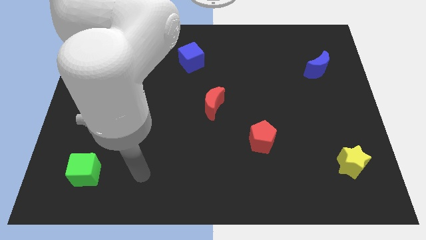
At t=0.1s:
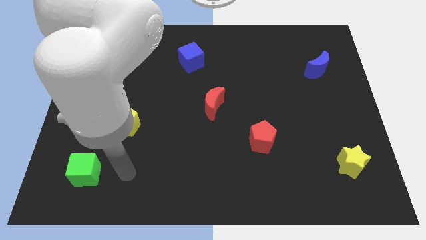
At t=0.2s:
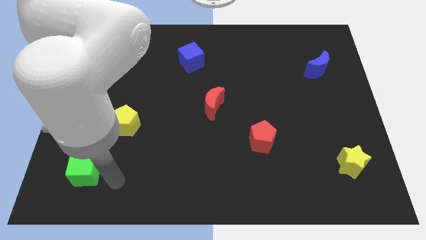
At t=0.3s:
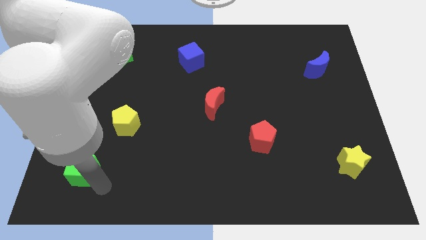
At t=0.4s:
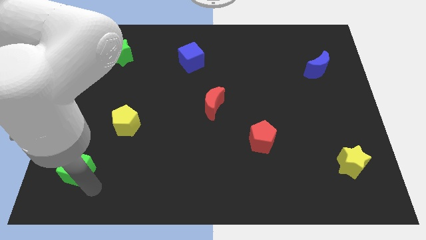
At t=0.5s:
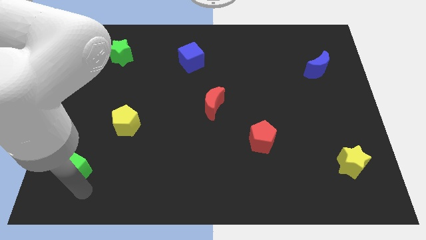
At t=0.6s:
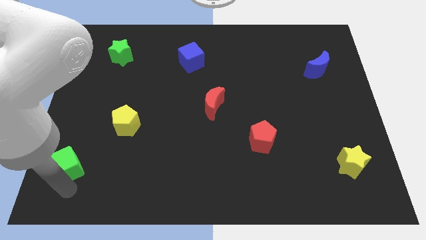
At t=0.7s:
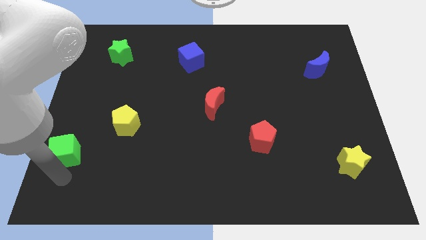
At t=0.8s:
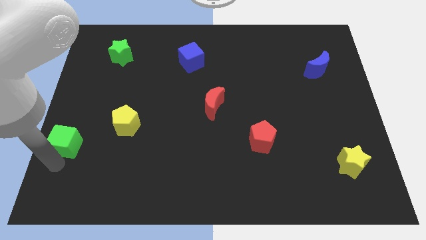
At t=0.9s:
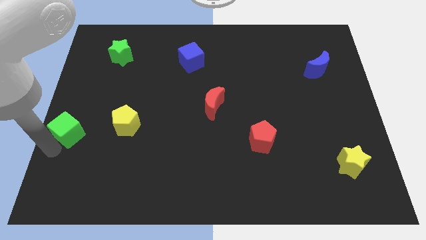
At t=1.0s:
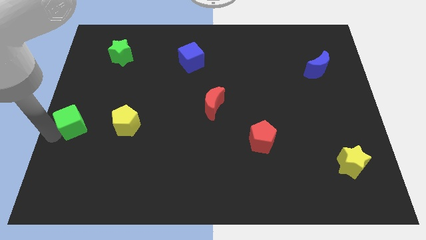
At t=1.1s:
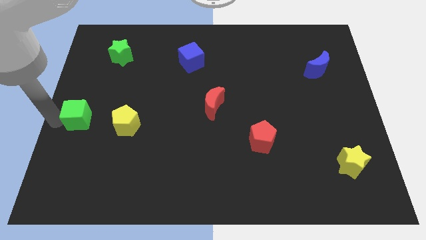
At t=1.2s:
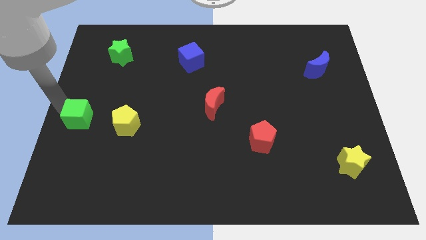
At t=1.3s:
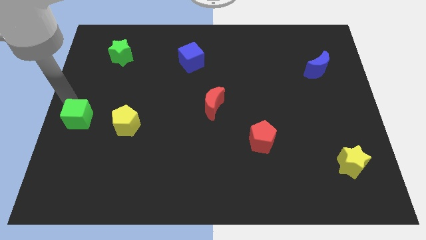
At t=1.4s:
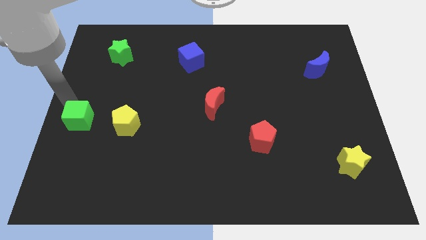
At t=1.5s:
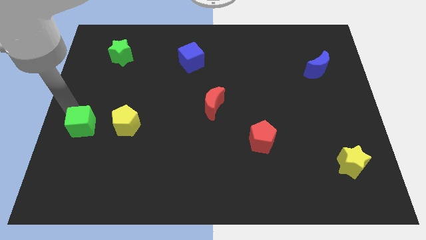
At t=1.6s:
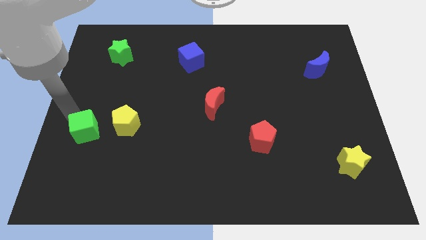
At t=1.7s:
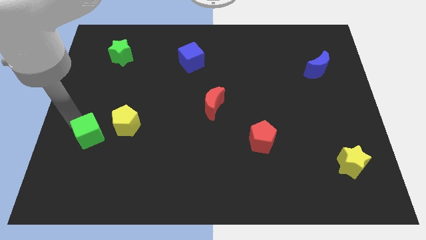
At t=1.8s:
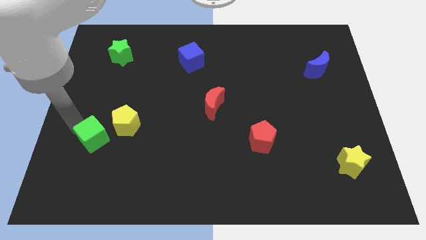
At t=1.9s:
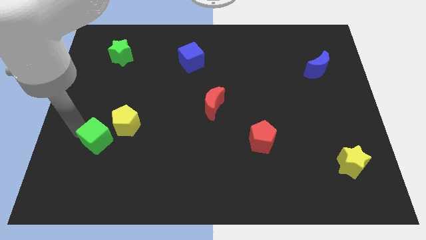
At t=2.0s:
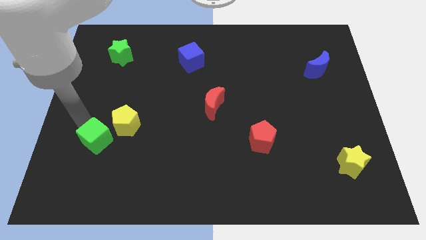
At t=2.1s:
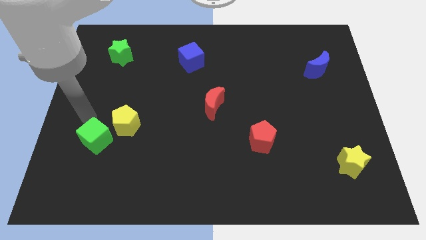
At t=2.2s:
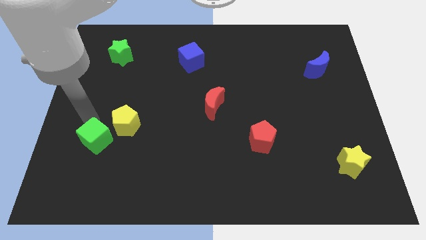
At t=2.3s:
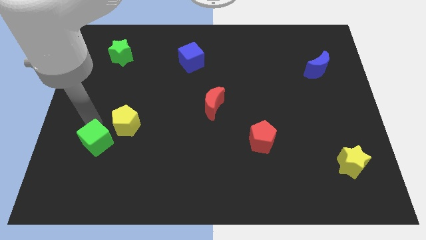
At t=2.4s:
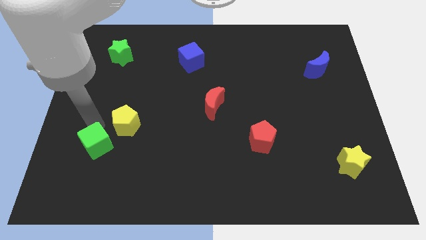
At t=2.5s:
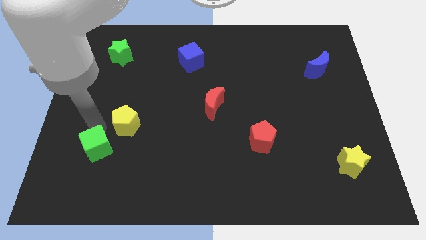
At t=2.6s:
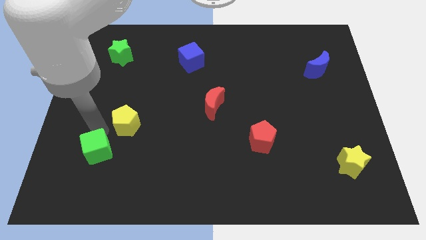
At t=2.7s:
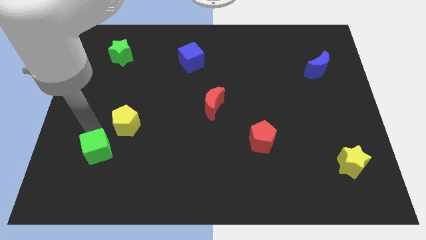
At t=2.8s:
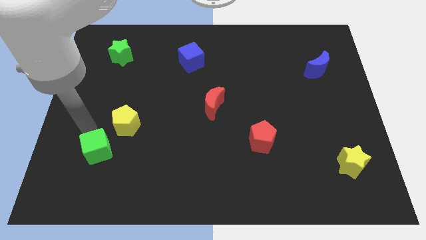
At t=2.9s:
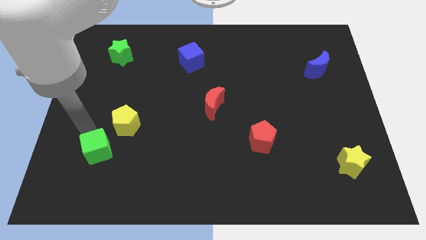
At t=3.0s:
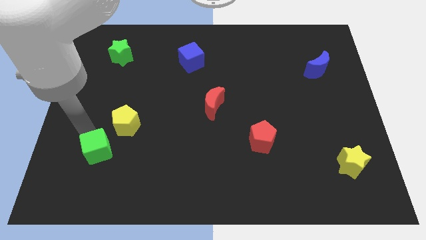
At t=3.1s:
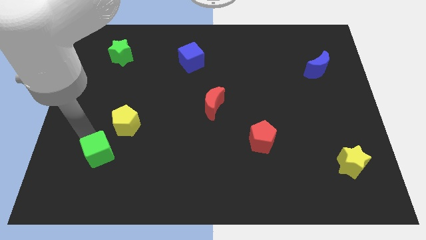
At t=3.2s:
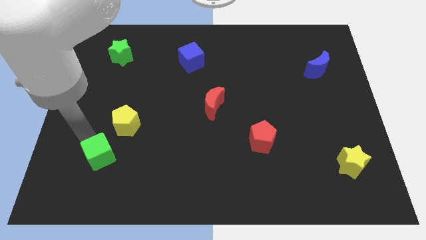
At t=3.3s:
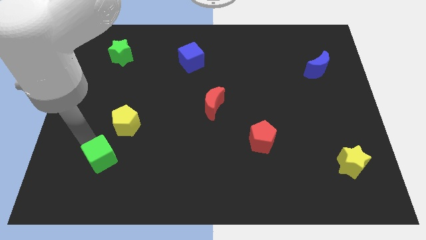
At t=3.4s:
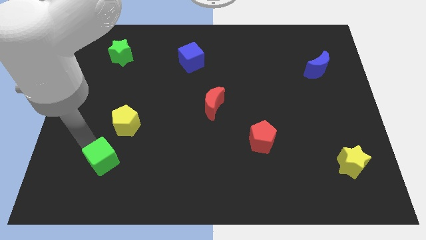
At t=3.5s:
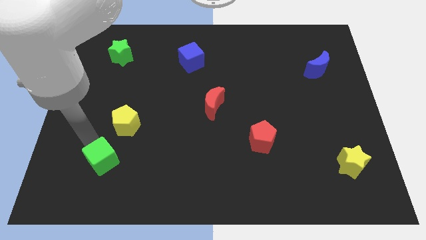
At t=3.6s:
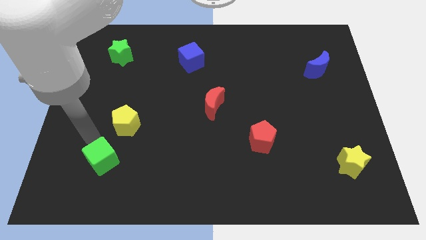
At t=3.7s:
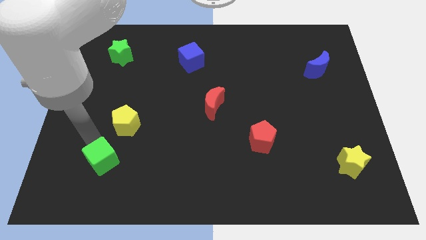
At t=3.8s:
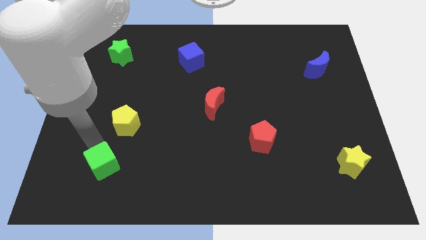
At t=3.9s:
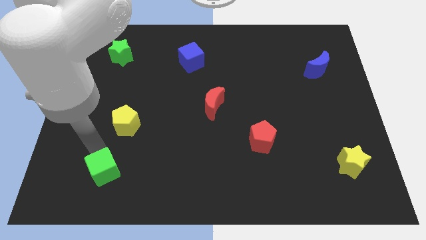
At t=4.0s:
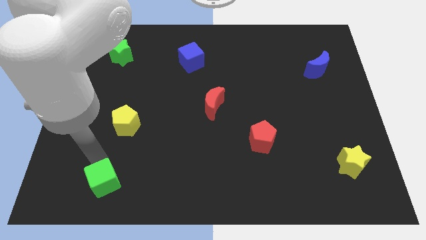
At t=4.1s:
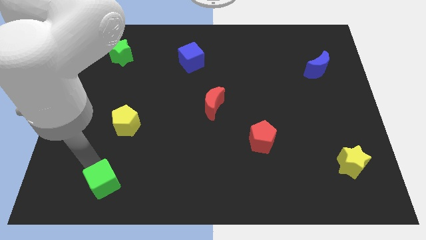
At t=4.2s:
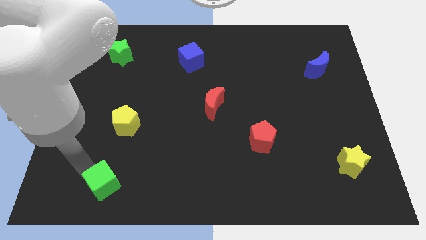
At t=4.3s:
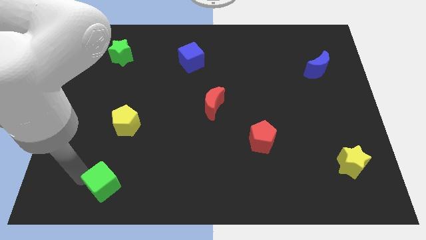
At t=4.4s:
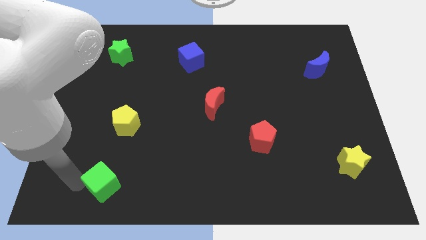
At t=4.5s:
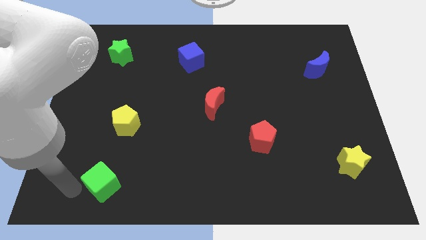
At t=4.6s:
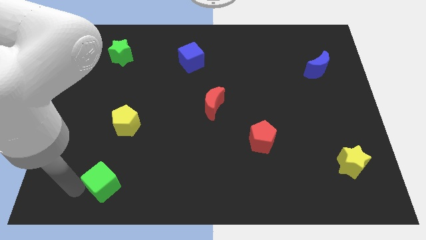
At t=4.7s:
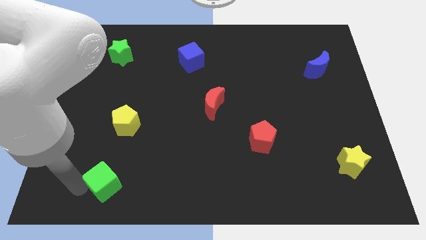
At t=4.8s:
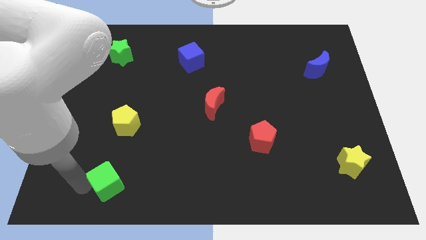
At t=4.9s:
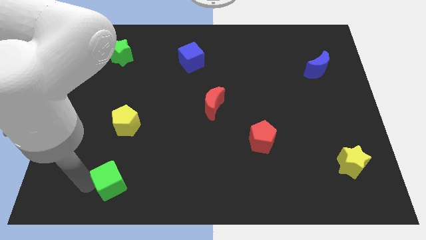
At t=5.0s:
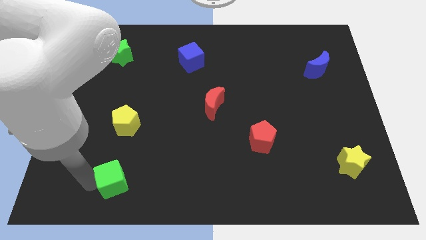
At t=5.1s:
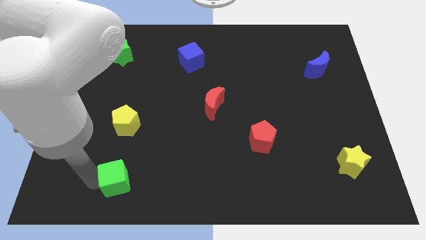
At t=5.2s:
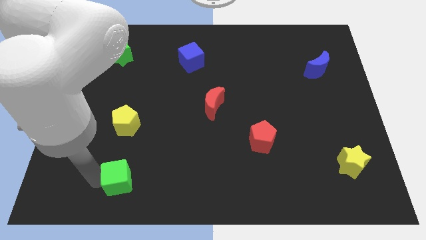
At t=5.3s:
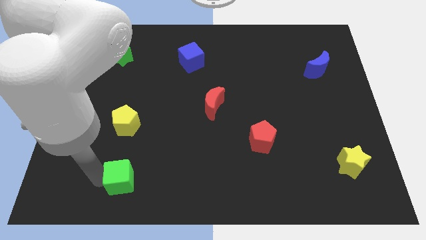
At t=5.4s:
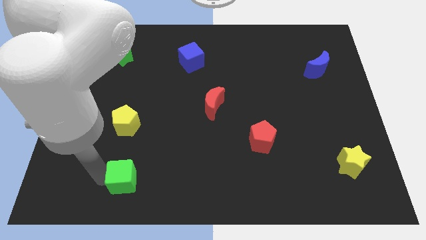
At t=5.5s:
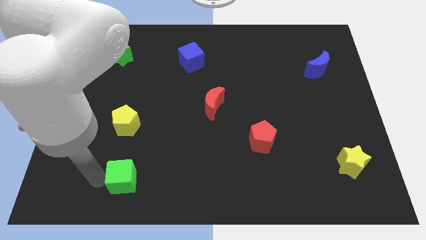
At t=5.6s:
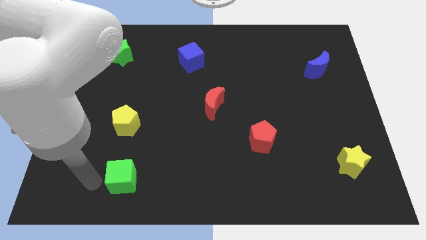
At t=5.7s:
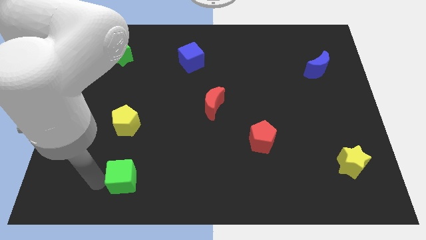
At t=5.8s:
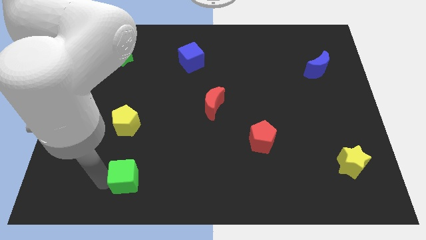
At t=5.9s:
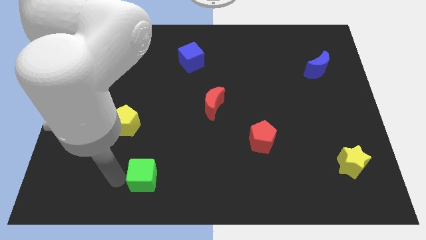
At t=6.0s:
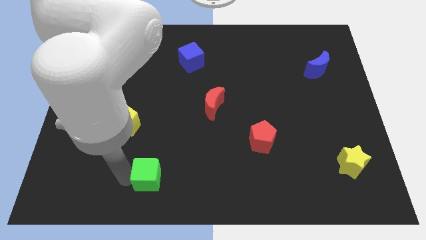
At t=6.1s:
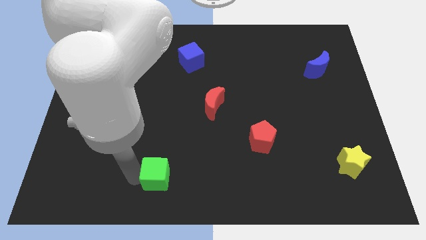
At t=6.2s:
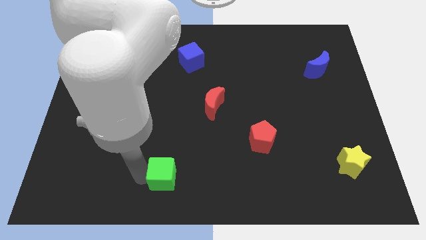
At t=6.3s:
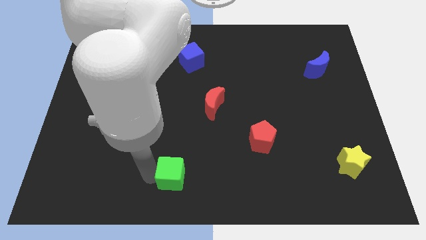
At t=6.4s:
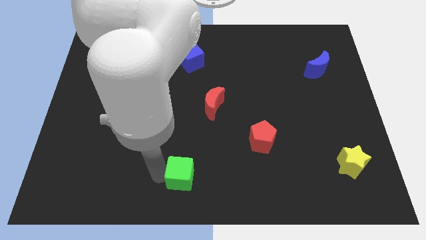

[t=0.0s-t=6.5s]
push the green cube to the right

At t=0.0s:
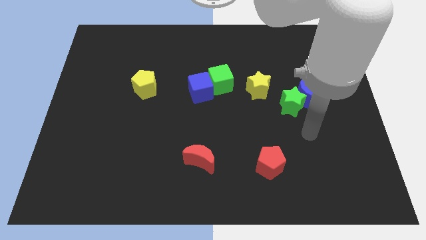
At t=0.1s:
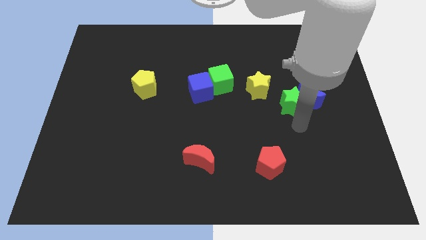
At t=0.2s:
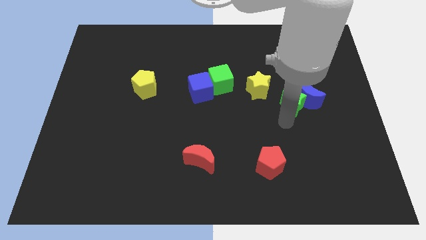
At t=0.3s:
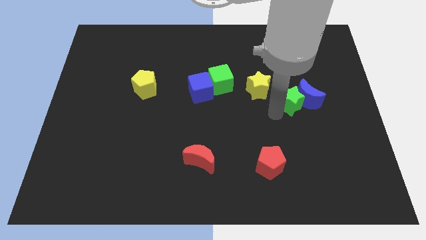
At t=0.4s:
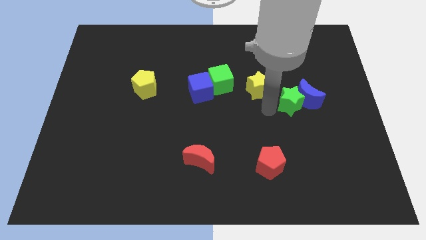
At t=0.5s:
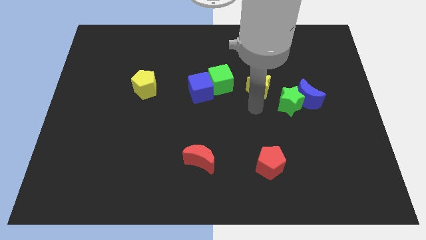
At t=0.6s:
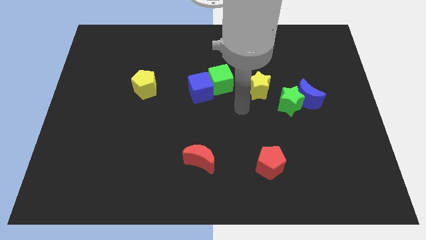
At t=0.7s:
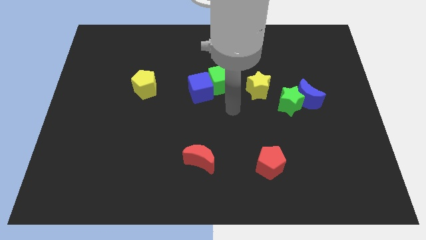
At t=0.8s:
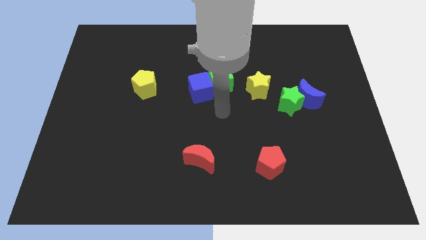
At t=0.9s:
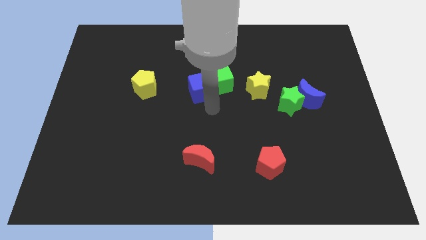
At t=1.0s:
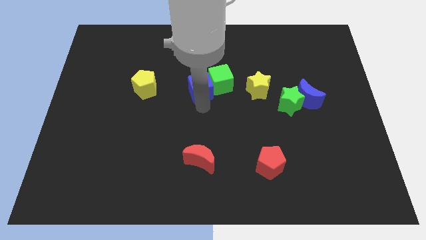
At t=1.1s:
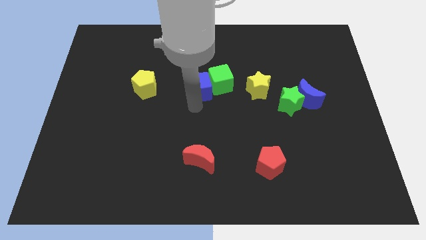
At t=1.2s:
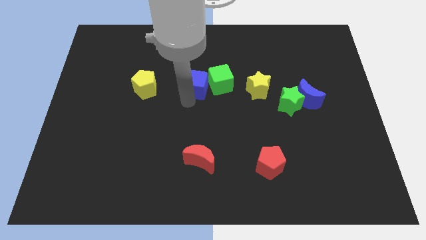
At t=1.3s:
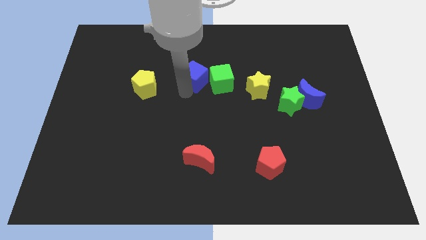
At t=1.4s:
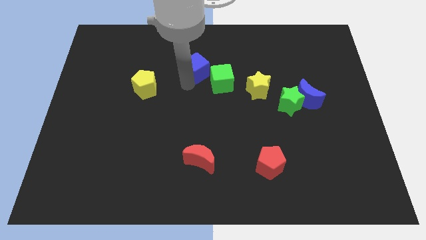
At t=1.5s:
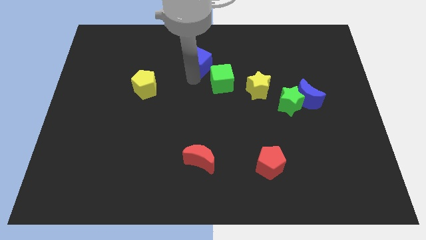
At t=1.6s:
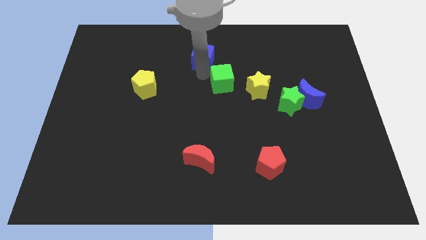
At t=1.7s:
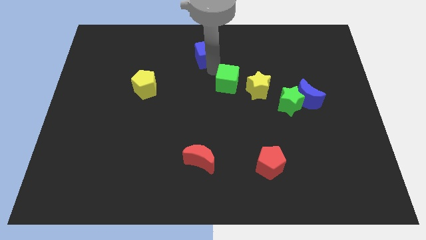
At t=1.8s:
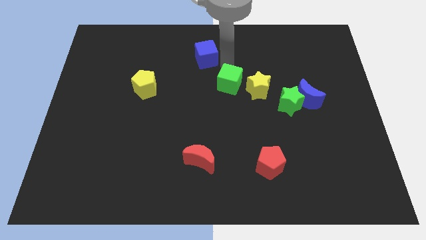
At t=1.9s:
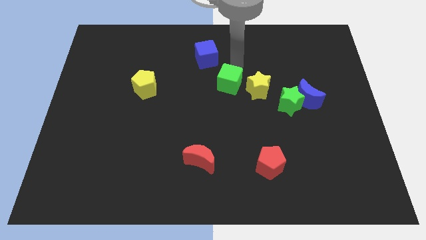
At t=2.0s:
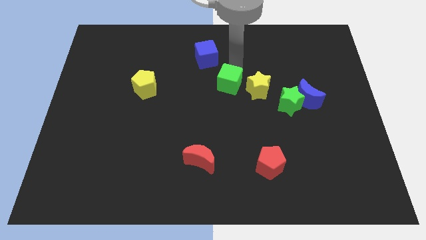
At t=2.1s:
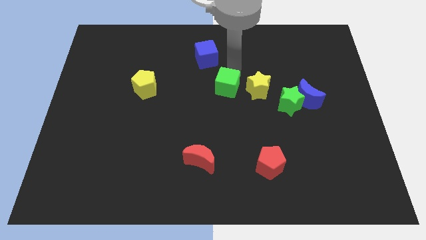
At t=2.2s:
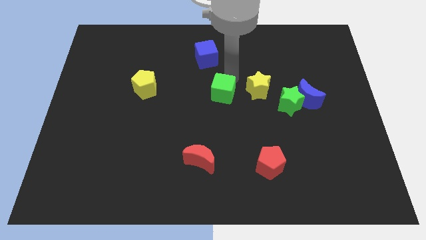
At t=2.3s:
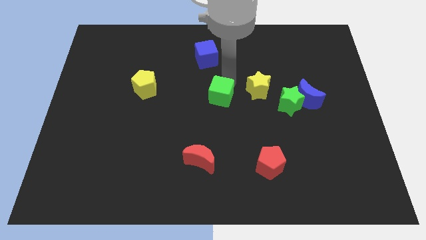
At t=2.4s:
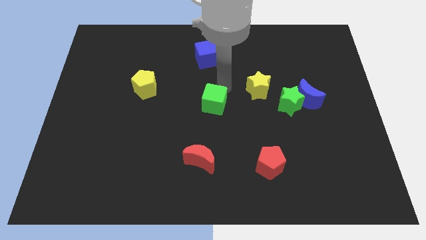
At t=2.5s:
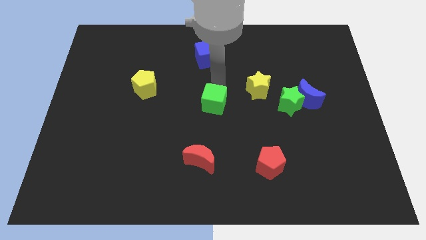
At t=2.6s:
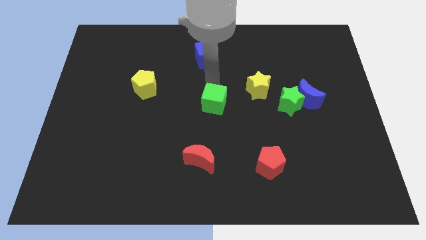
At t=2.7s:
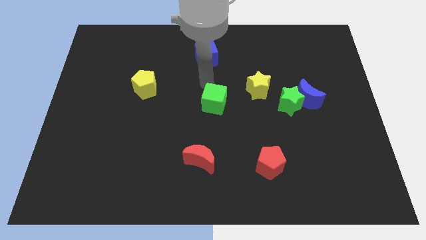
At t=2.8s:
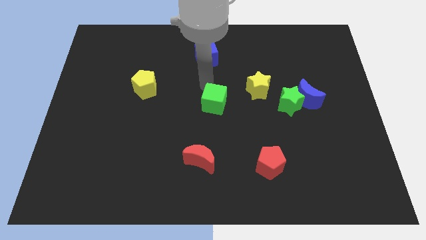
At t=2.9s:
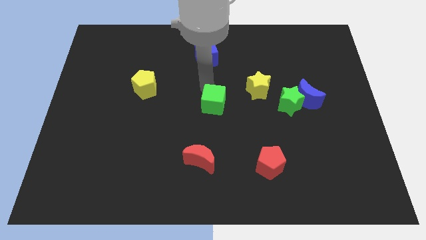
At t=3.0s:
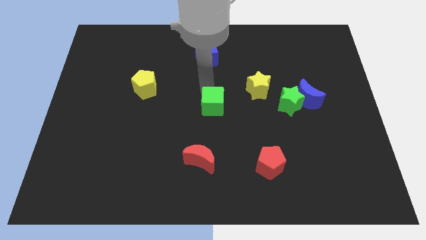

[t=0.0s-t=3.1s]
slightly move the green cube downwards
